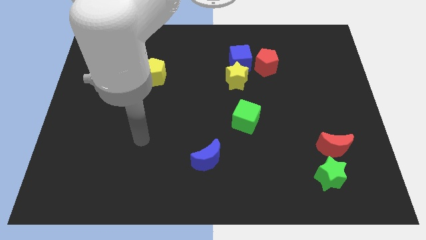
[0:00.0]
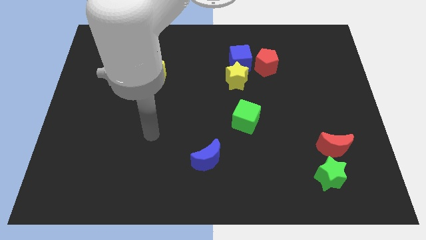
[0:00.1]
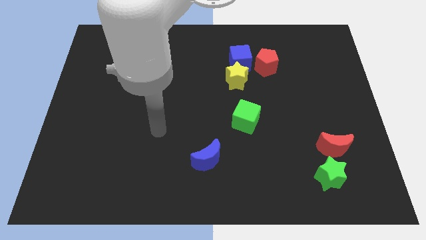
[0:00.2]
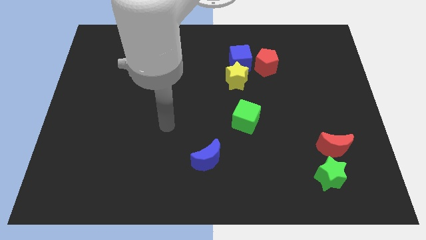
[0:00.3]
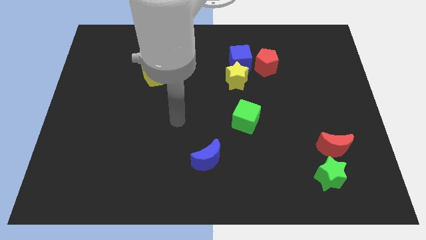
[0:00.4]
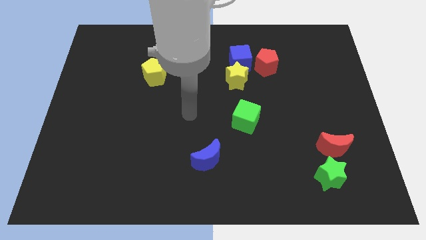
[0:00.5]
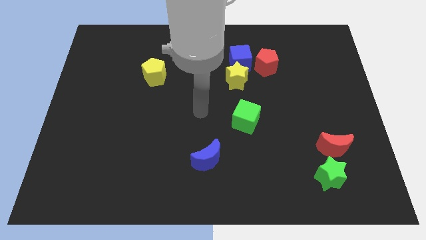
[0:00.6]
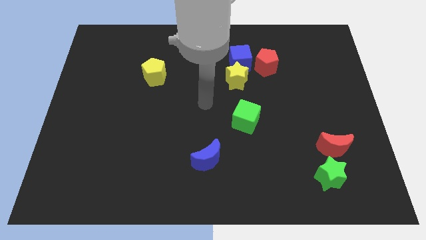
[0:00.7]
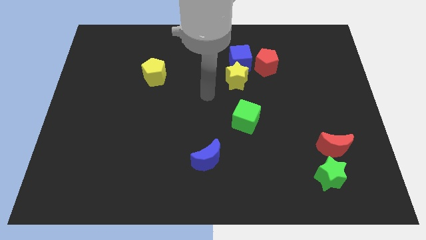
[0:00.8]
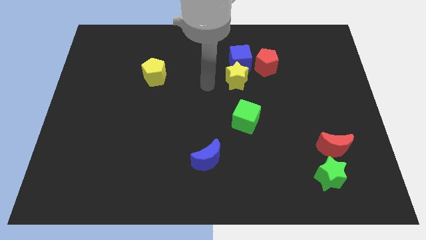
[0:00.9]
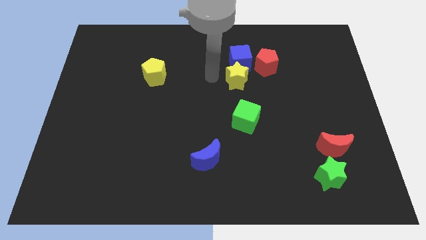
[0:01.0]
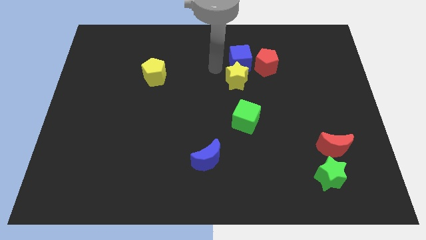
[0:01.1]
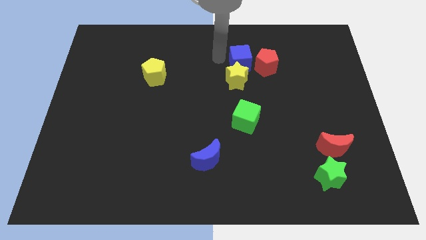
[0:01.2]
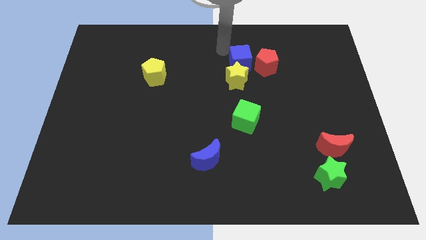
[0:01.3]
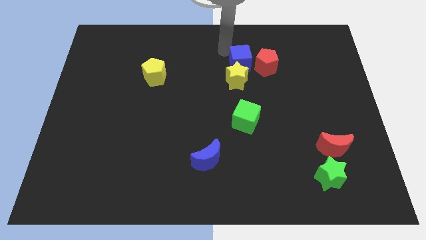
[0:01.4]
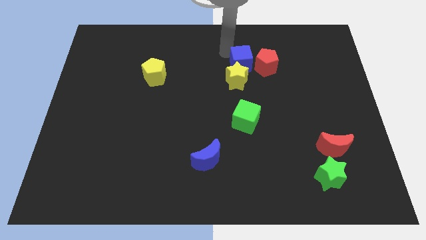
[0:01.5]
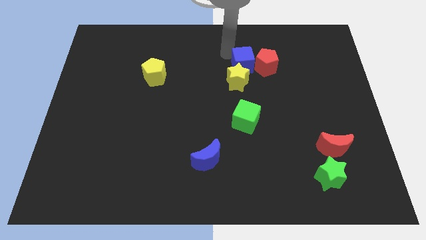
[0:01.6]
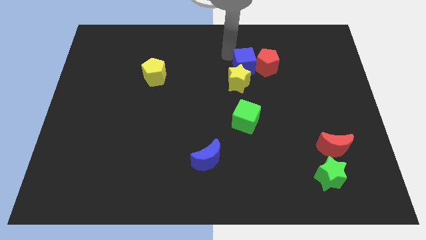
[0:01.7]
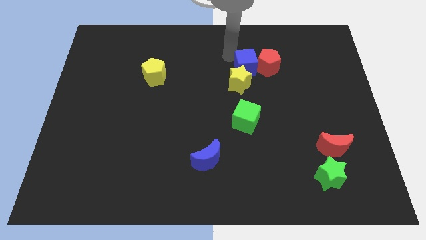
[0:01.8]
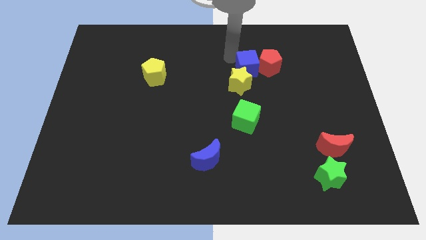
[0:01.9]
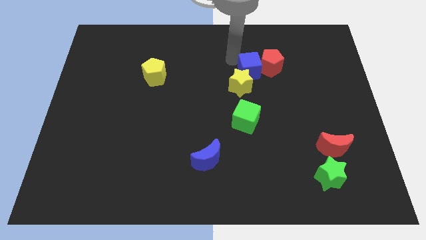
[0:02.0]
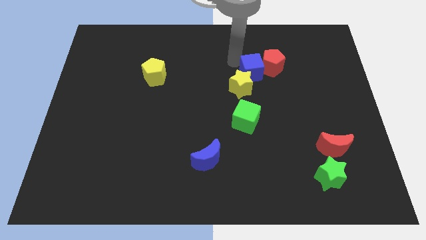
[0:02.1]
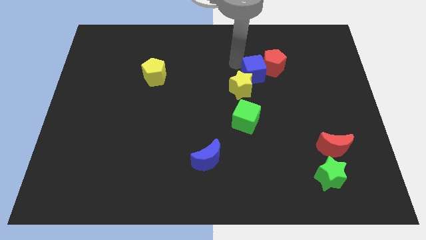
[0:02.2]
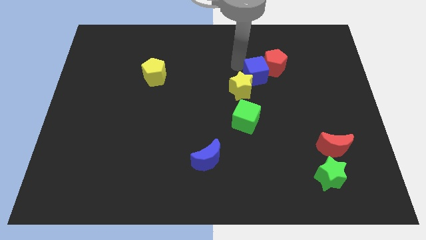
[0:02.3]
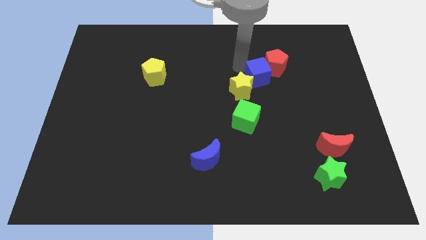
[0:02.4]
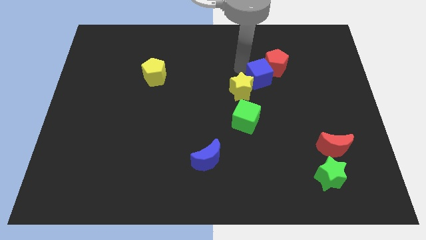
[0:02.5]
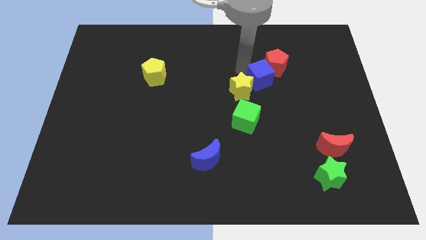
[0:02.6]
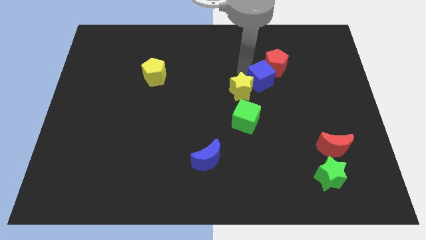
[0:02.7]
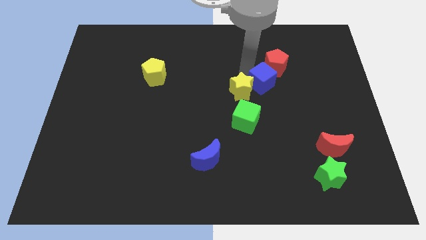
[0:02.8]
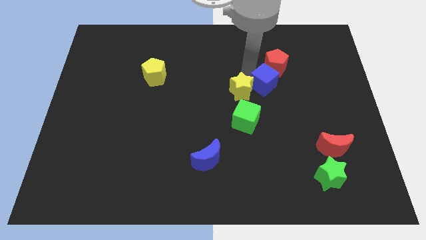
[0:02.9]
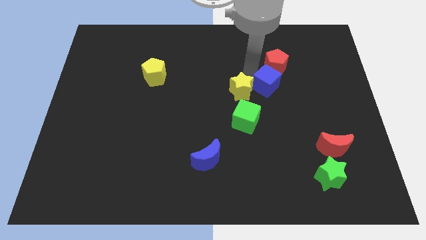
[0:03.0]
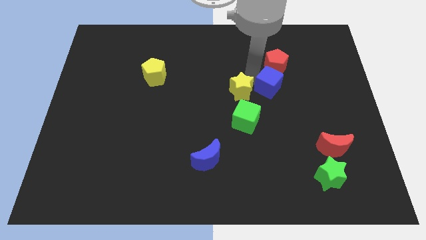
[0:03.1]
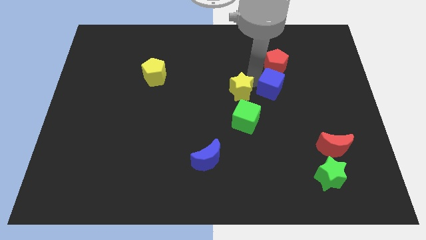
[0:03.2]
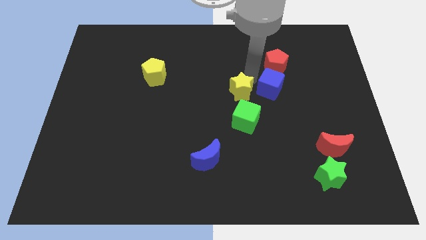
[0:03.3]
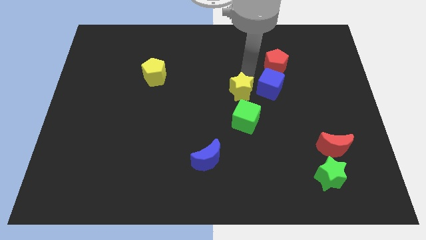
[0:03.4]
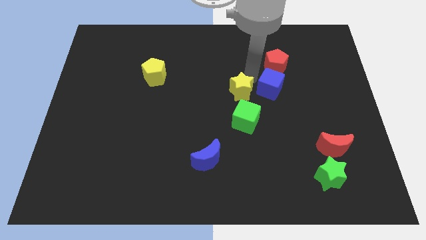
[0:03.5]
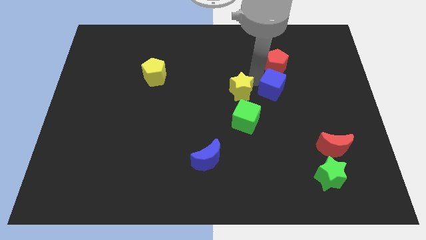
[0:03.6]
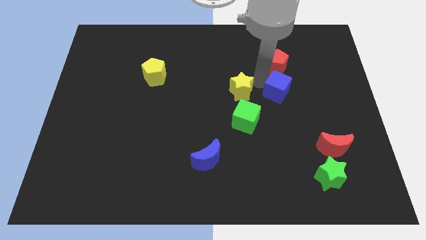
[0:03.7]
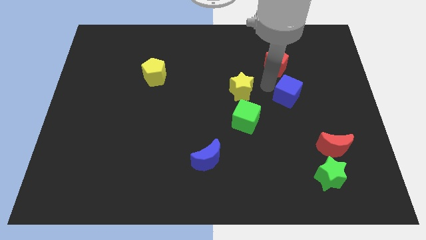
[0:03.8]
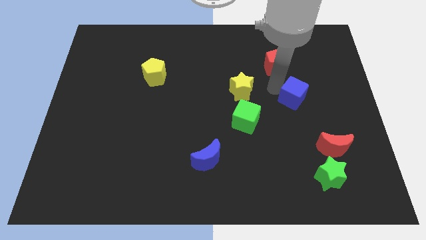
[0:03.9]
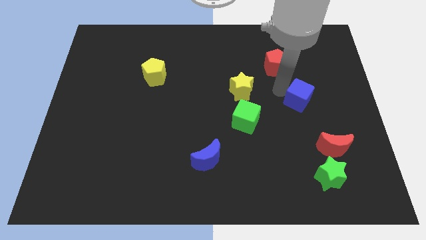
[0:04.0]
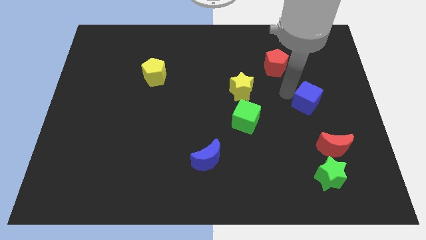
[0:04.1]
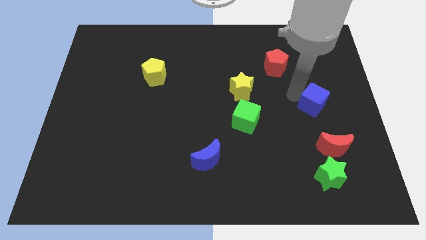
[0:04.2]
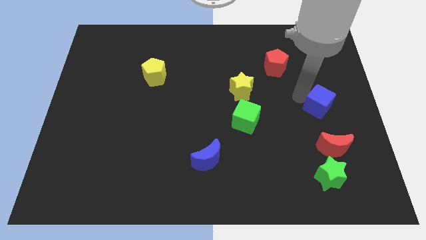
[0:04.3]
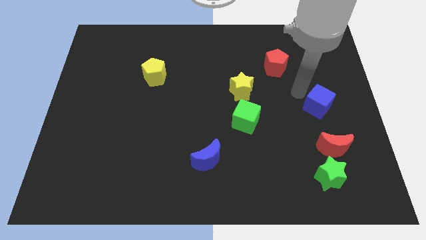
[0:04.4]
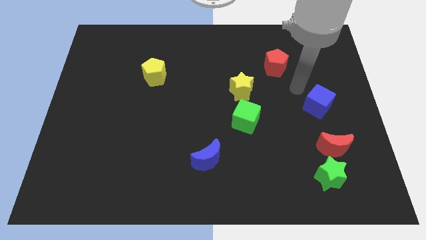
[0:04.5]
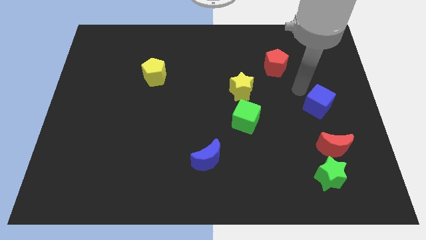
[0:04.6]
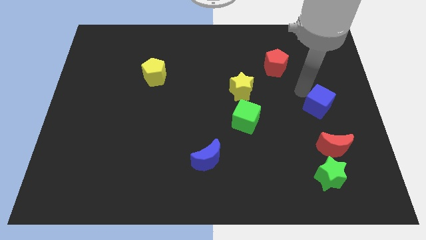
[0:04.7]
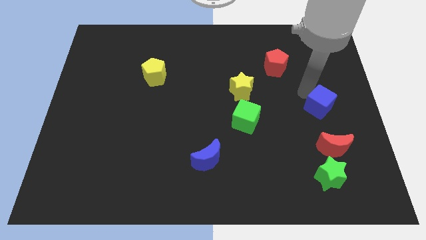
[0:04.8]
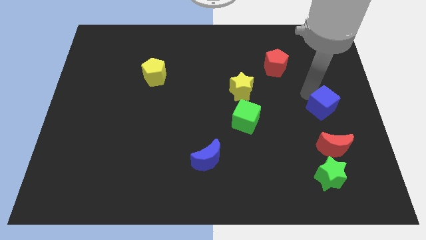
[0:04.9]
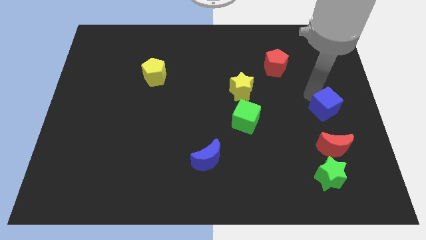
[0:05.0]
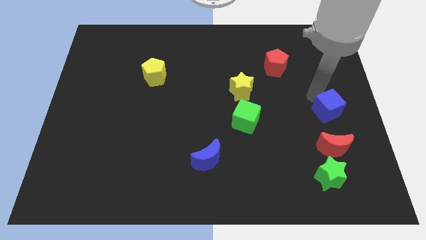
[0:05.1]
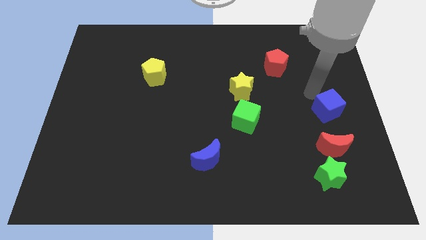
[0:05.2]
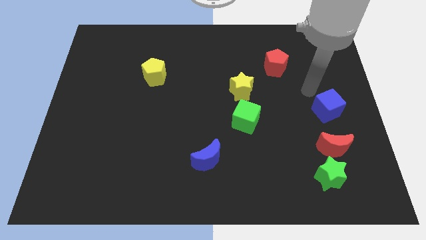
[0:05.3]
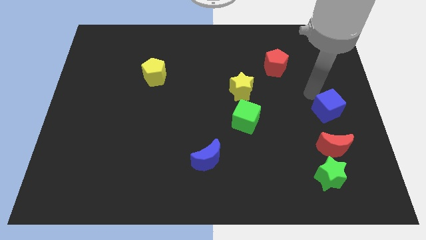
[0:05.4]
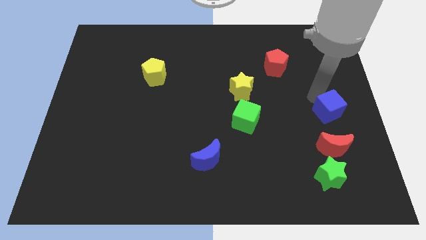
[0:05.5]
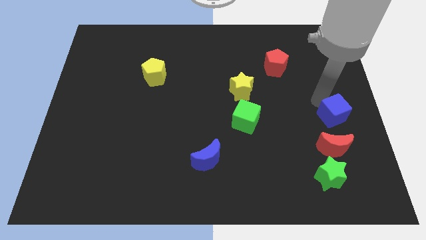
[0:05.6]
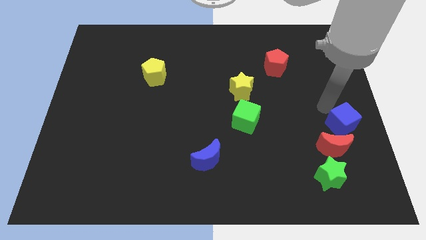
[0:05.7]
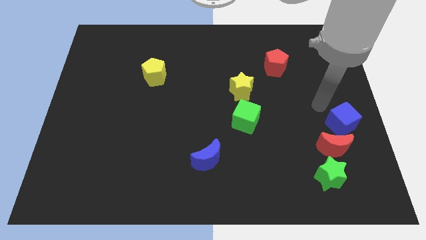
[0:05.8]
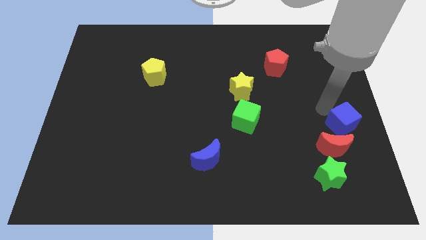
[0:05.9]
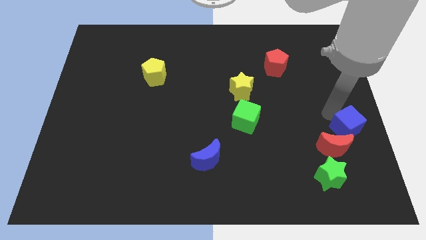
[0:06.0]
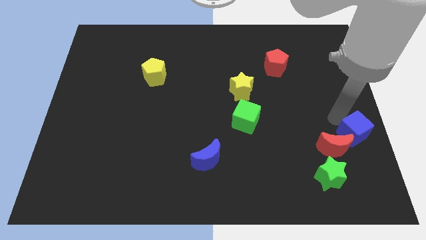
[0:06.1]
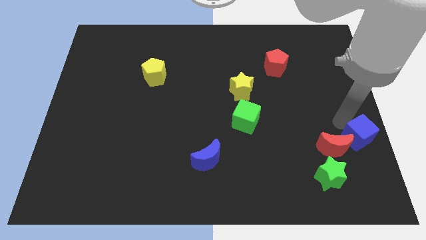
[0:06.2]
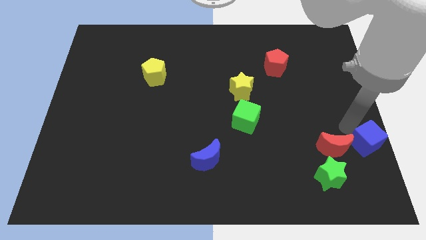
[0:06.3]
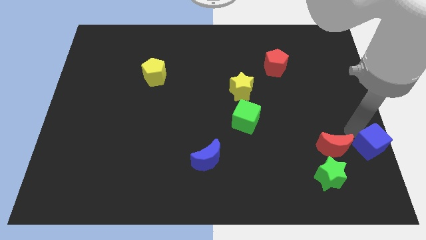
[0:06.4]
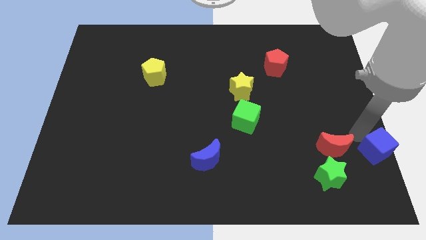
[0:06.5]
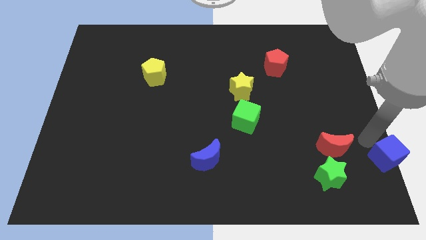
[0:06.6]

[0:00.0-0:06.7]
slide the blue cube to the bottom right corner
